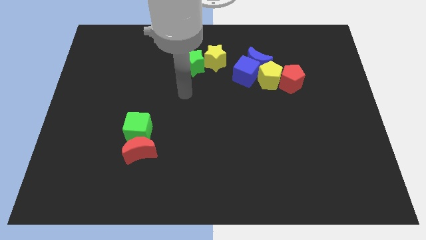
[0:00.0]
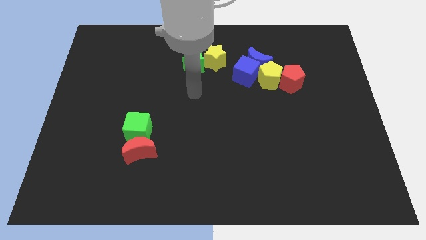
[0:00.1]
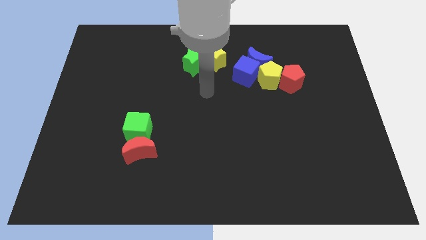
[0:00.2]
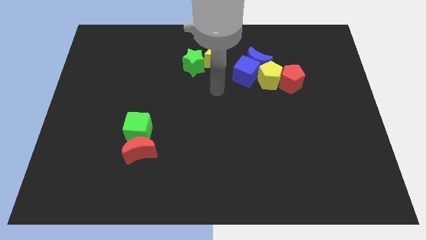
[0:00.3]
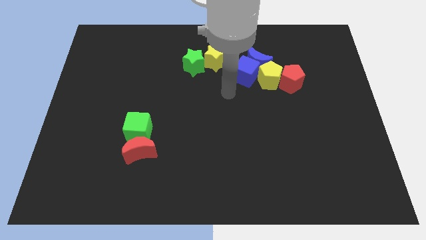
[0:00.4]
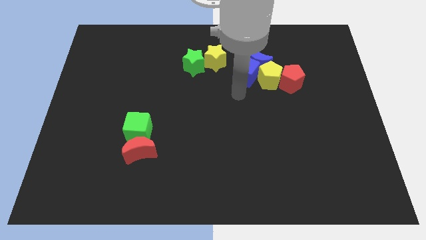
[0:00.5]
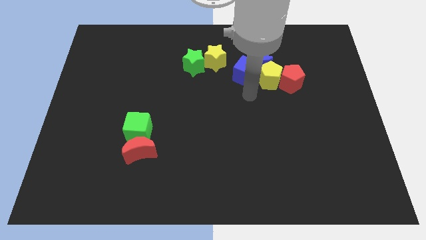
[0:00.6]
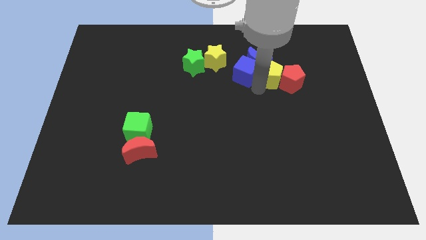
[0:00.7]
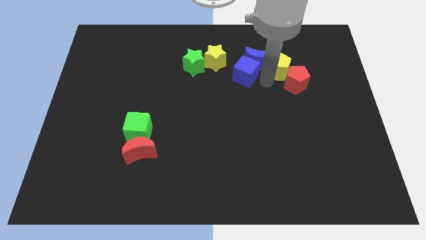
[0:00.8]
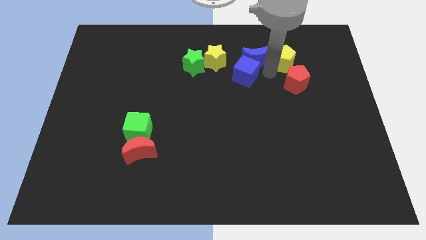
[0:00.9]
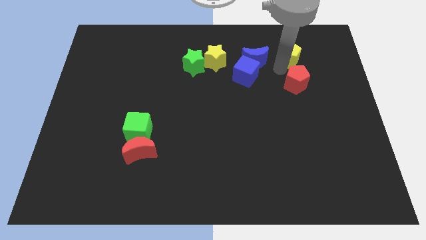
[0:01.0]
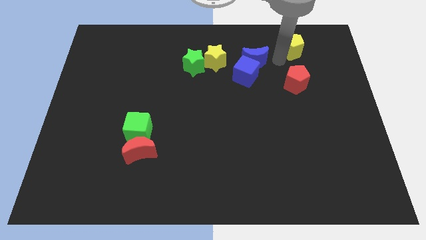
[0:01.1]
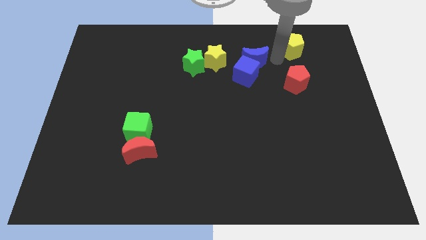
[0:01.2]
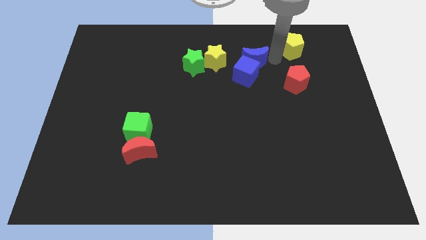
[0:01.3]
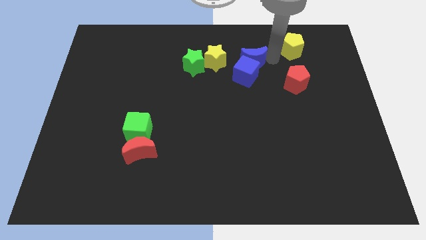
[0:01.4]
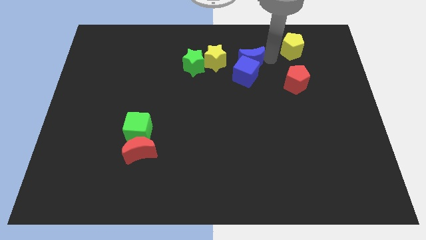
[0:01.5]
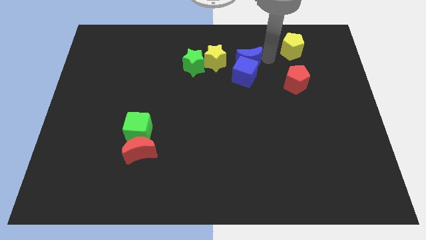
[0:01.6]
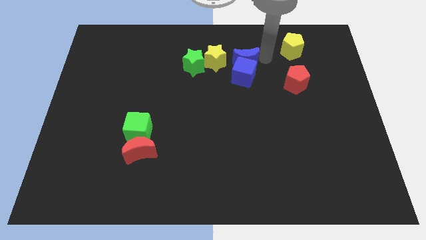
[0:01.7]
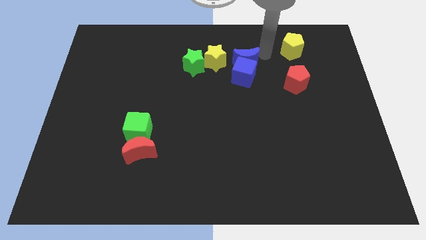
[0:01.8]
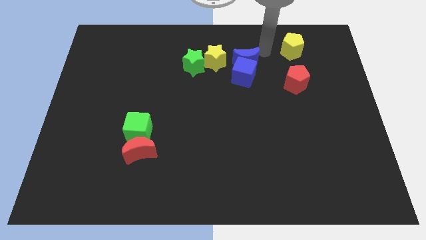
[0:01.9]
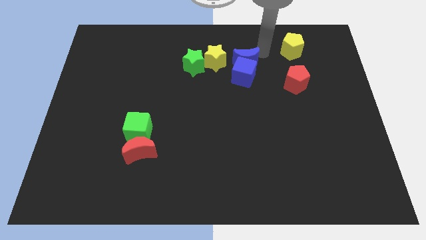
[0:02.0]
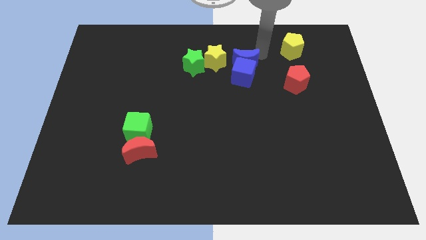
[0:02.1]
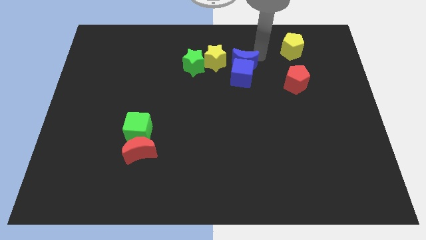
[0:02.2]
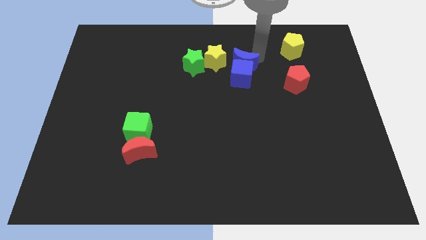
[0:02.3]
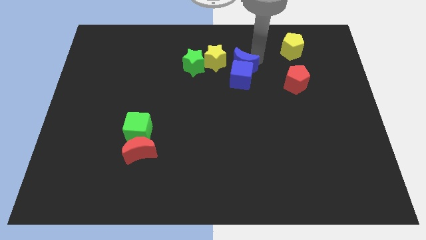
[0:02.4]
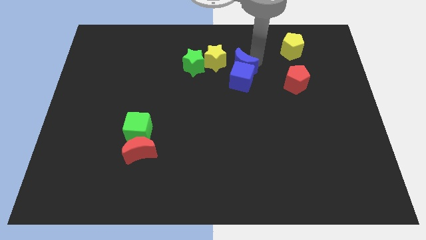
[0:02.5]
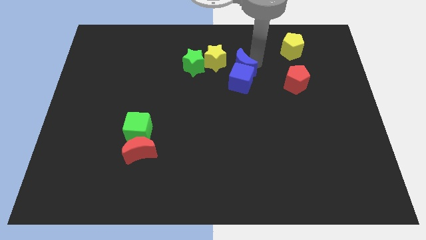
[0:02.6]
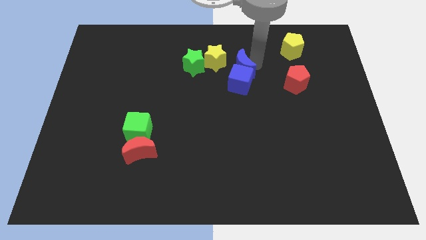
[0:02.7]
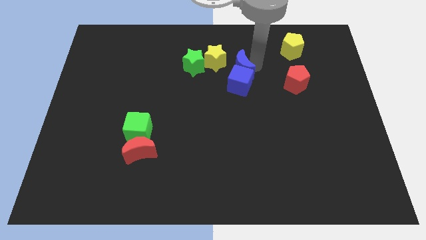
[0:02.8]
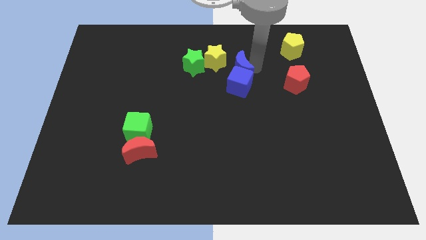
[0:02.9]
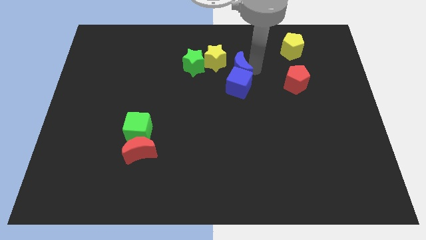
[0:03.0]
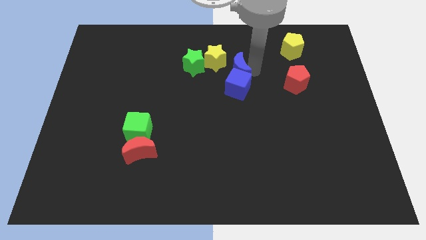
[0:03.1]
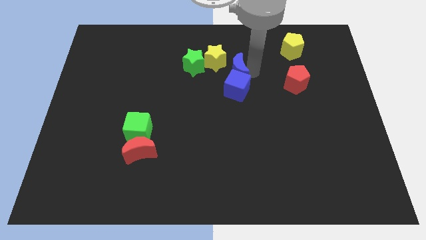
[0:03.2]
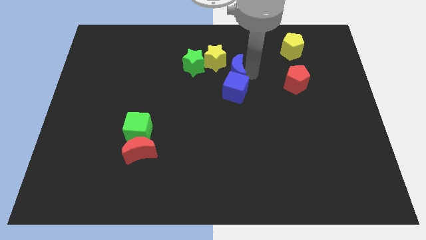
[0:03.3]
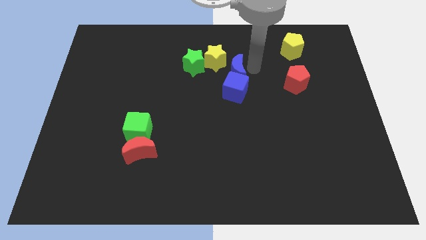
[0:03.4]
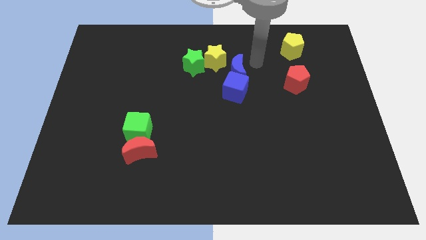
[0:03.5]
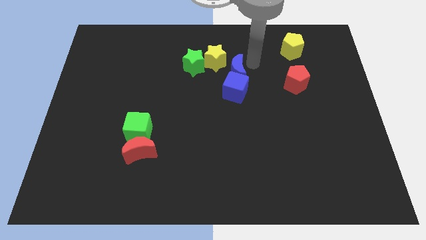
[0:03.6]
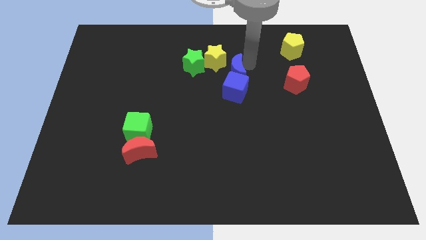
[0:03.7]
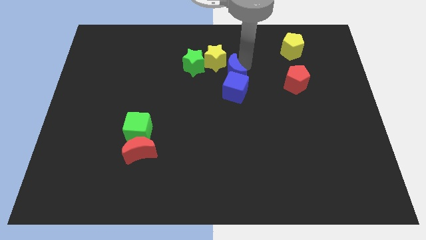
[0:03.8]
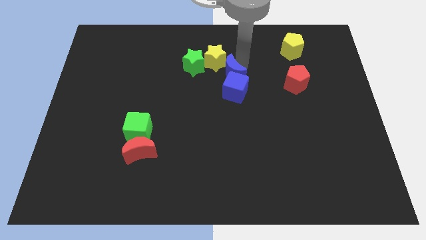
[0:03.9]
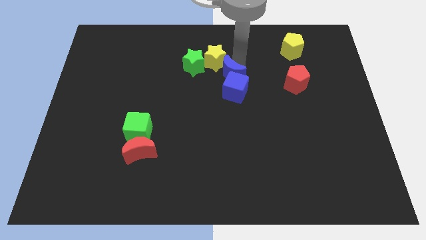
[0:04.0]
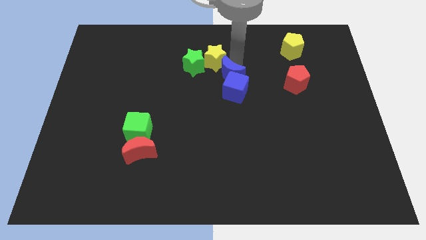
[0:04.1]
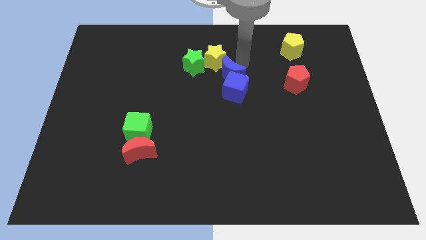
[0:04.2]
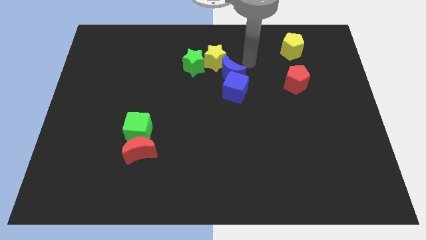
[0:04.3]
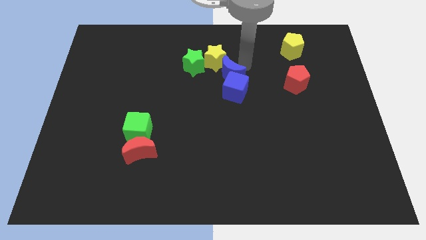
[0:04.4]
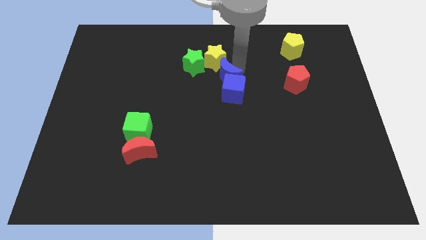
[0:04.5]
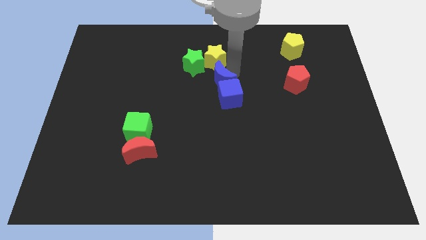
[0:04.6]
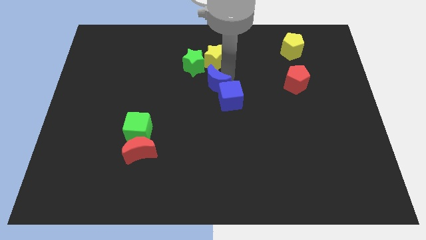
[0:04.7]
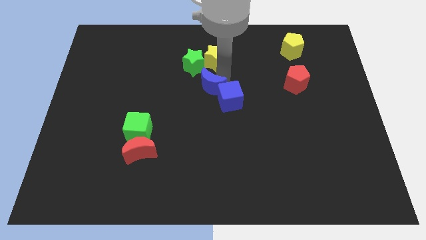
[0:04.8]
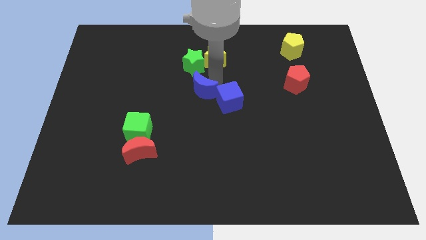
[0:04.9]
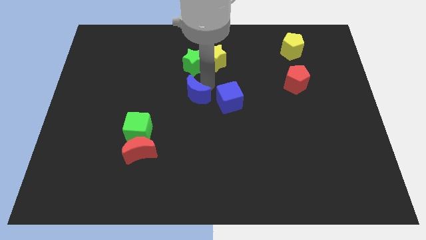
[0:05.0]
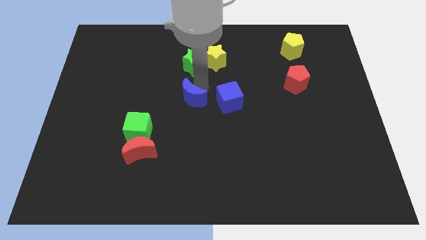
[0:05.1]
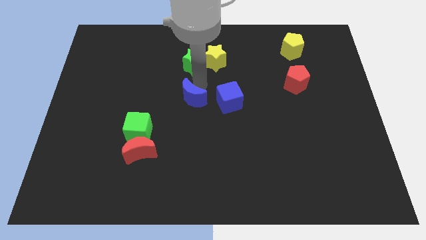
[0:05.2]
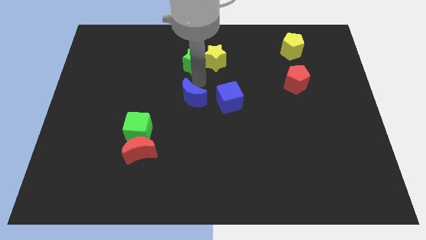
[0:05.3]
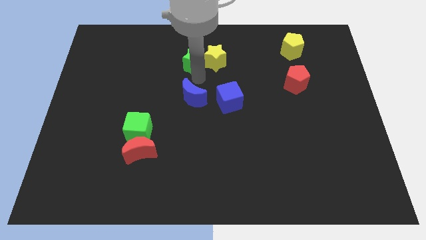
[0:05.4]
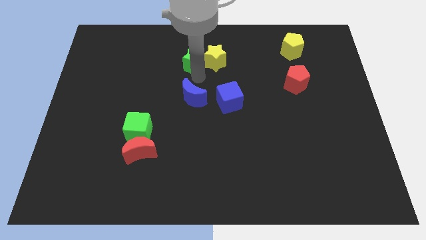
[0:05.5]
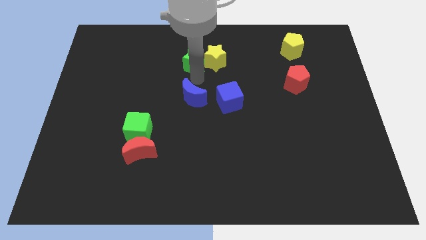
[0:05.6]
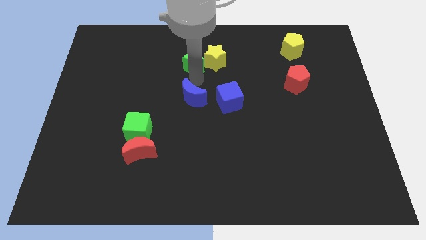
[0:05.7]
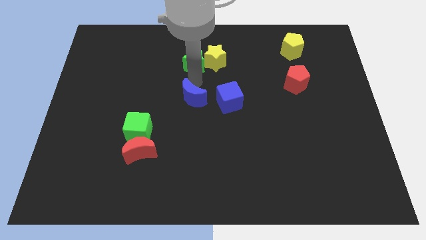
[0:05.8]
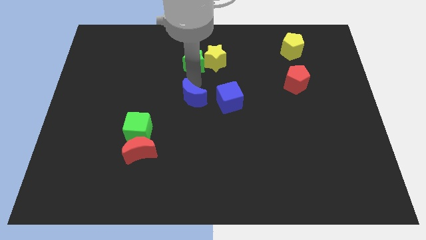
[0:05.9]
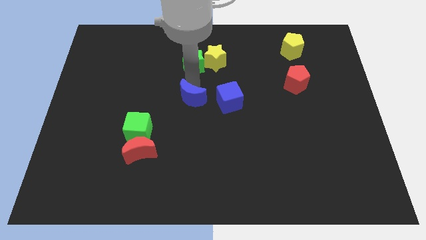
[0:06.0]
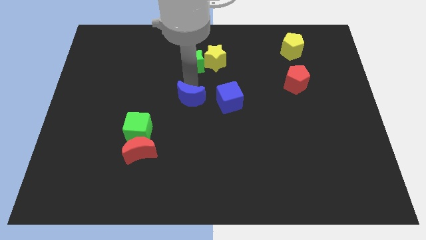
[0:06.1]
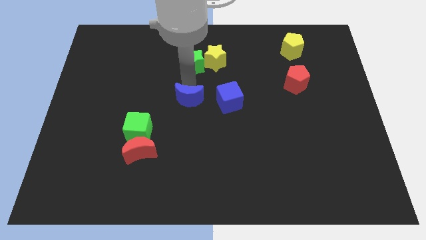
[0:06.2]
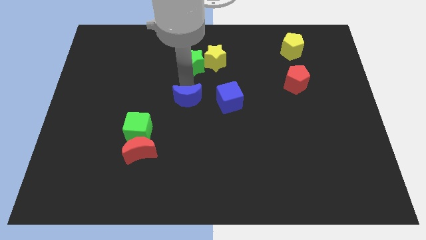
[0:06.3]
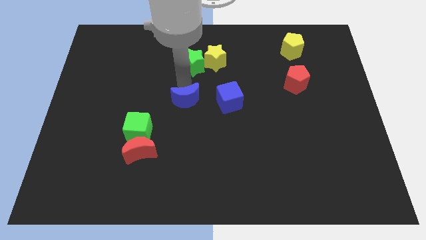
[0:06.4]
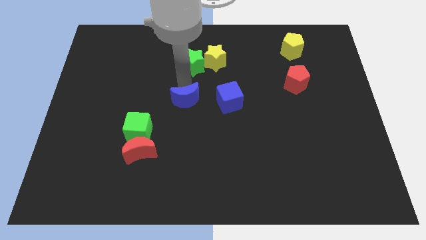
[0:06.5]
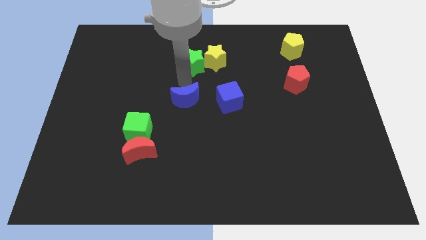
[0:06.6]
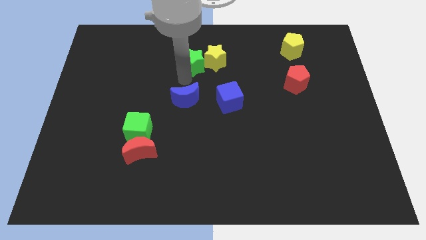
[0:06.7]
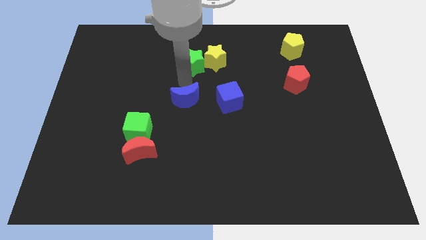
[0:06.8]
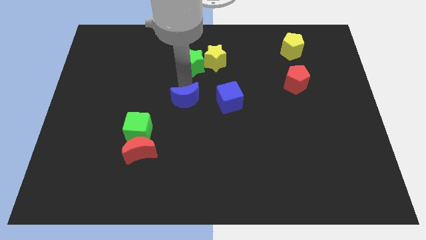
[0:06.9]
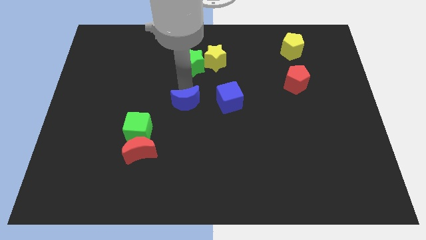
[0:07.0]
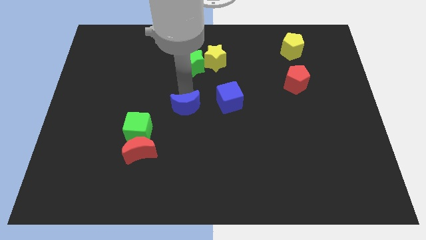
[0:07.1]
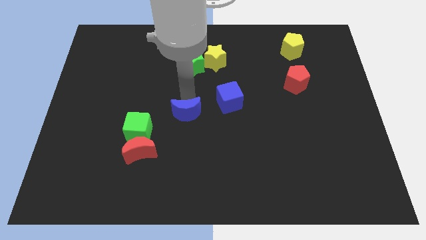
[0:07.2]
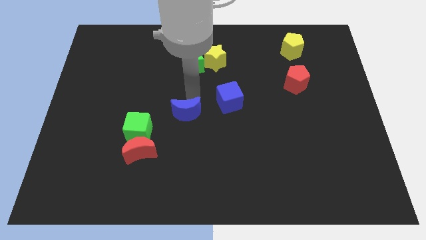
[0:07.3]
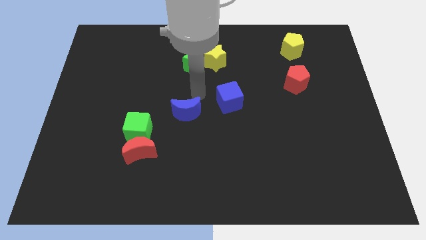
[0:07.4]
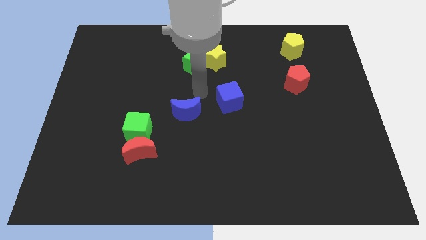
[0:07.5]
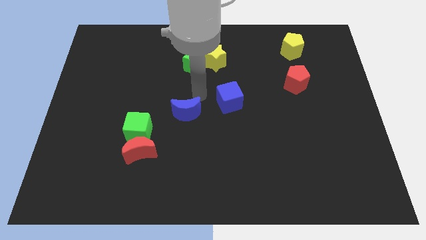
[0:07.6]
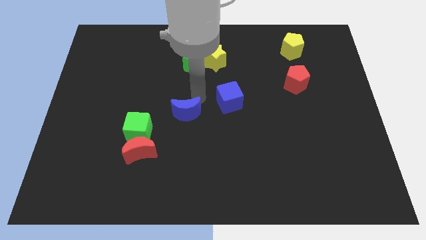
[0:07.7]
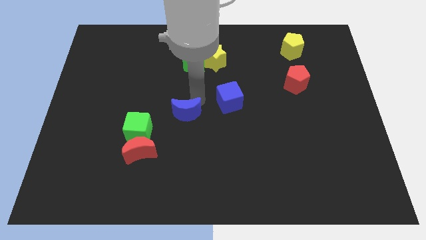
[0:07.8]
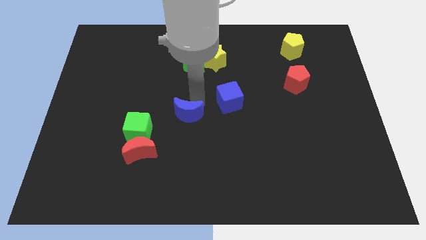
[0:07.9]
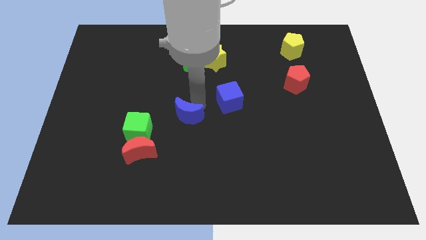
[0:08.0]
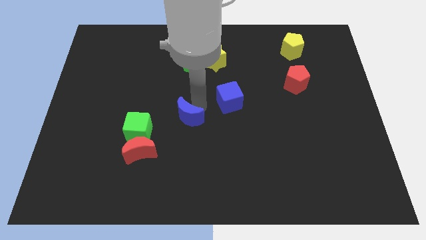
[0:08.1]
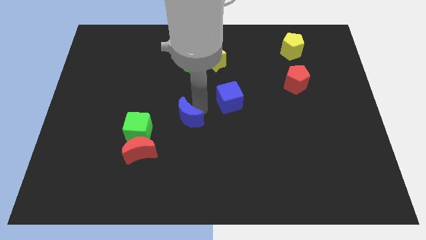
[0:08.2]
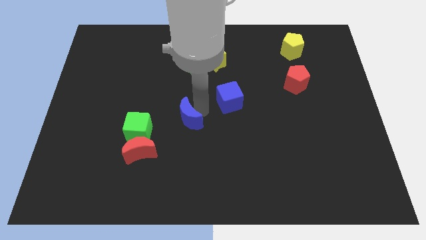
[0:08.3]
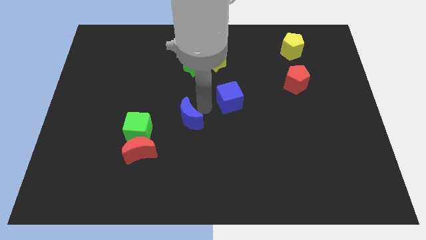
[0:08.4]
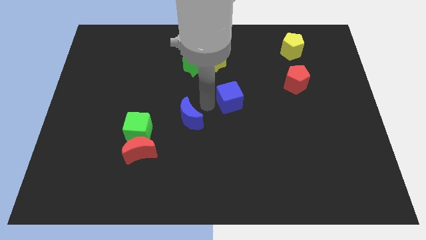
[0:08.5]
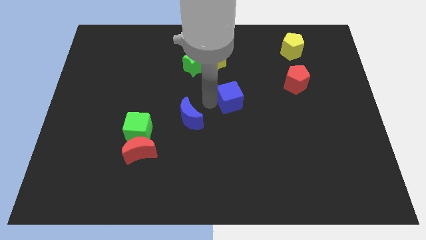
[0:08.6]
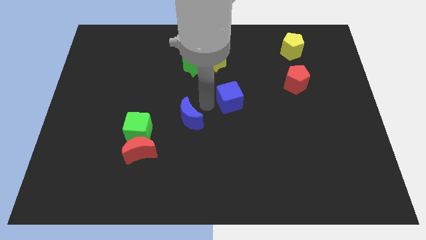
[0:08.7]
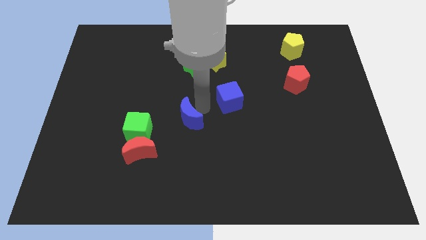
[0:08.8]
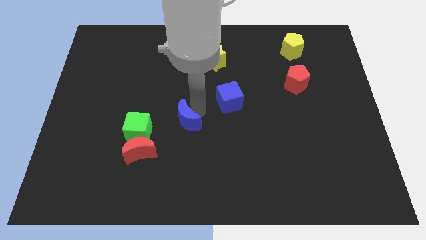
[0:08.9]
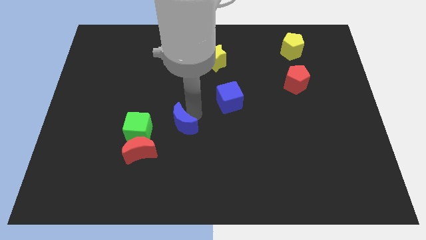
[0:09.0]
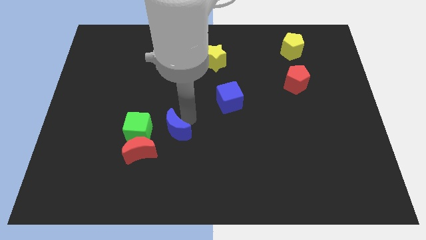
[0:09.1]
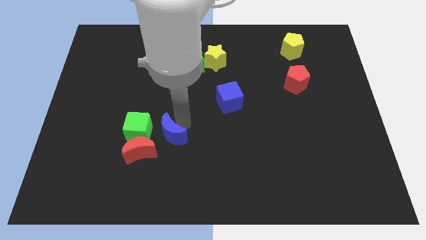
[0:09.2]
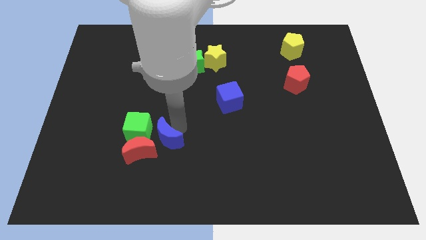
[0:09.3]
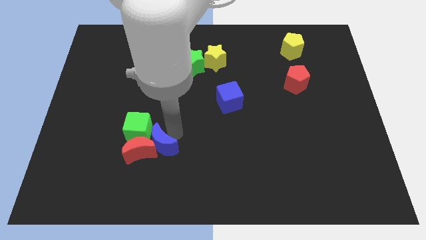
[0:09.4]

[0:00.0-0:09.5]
push the blue moon close to the red moon
